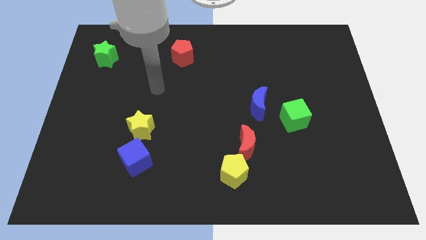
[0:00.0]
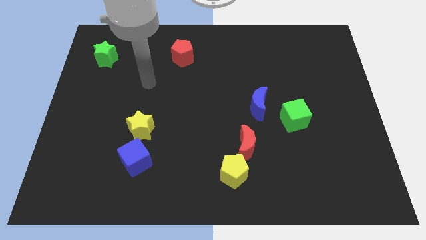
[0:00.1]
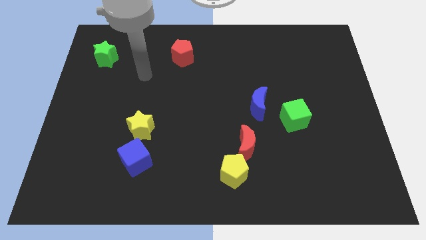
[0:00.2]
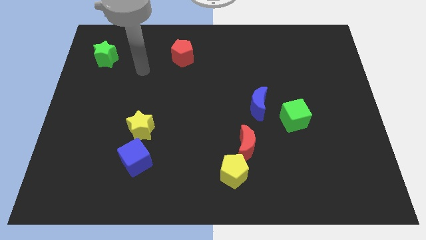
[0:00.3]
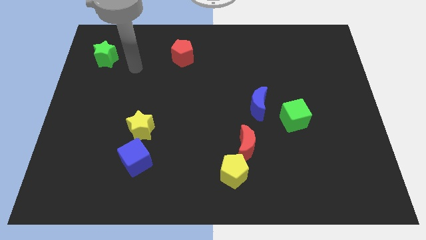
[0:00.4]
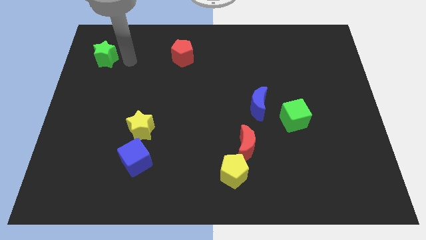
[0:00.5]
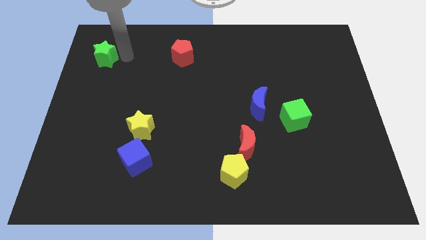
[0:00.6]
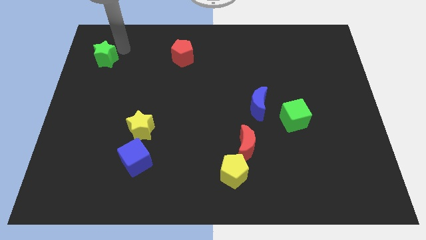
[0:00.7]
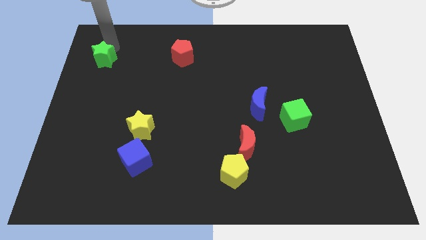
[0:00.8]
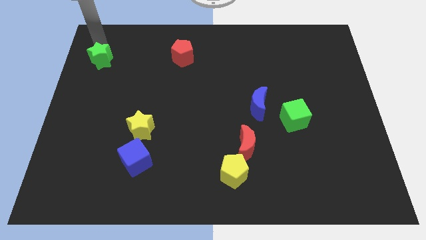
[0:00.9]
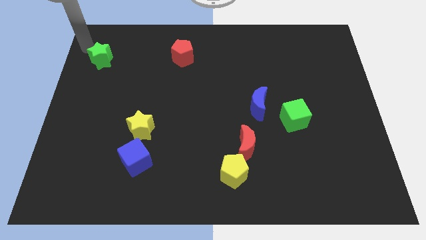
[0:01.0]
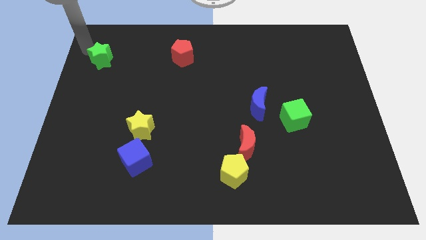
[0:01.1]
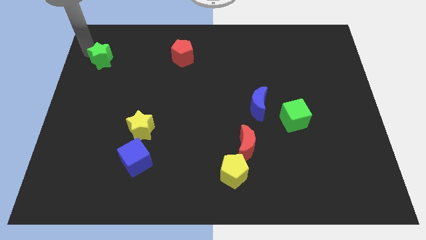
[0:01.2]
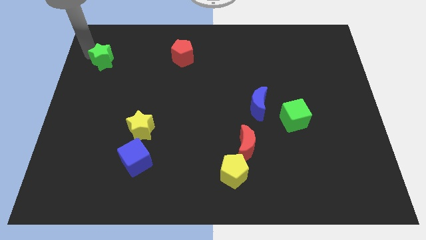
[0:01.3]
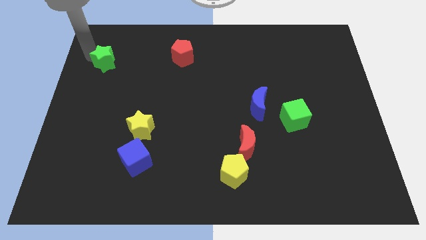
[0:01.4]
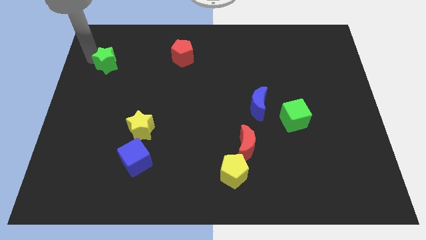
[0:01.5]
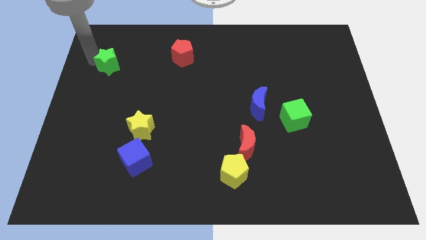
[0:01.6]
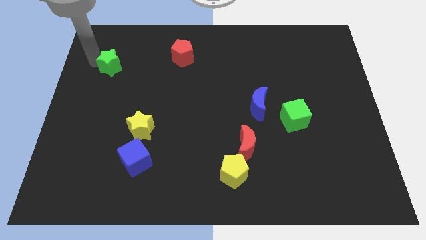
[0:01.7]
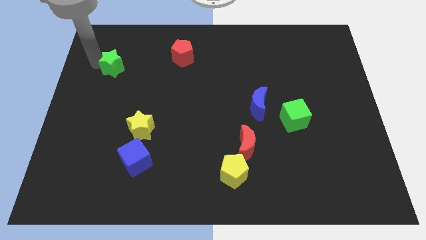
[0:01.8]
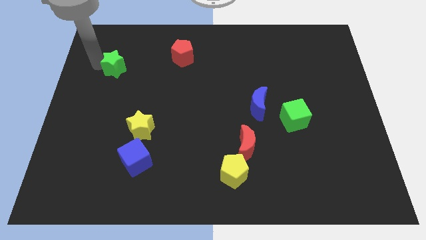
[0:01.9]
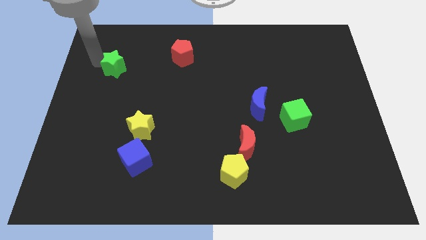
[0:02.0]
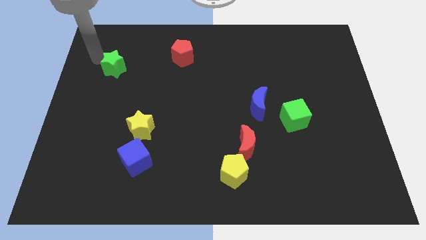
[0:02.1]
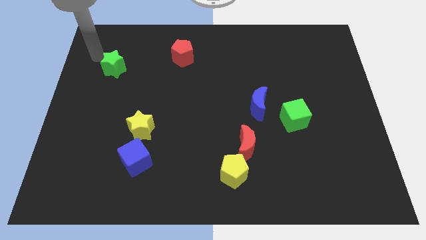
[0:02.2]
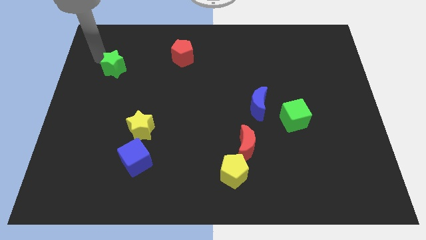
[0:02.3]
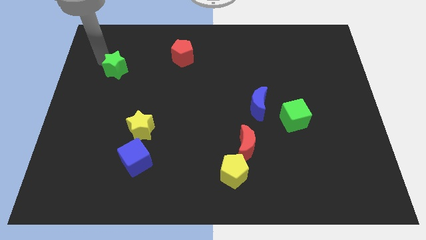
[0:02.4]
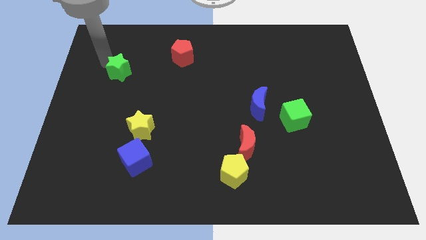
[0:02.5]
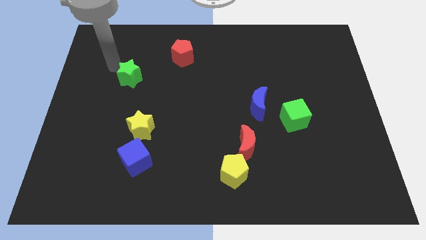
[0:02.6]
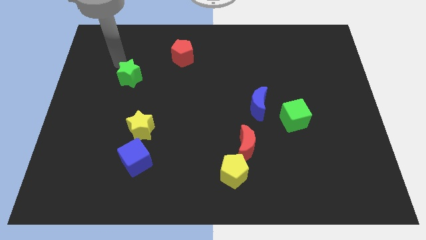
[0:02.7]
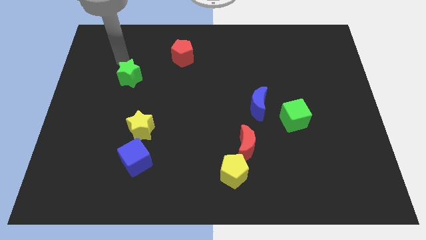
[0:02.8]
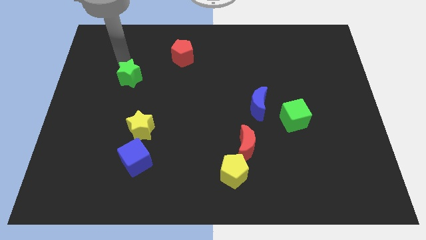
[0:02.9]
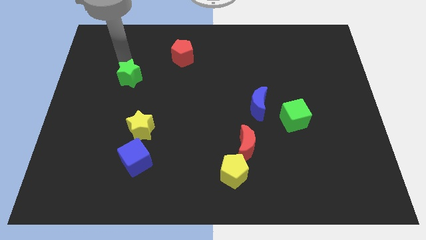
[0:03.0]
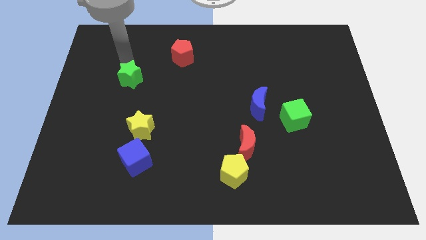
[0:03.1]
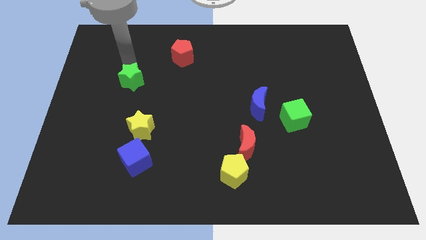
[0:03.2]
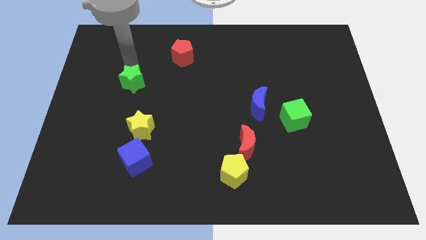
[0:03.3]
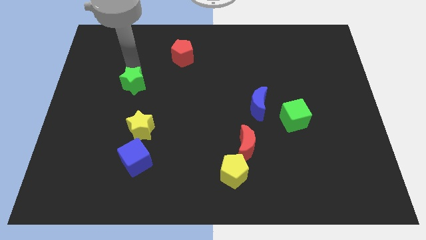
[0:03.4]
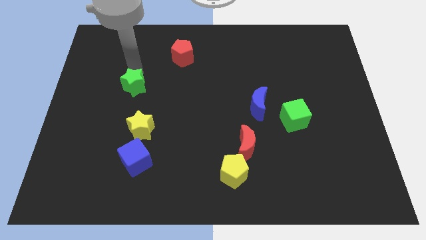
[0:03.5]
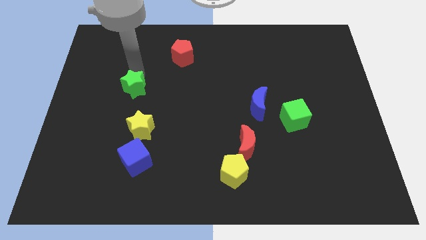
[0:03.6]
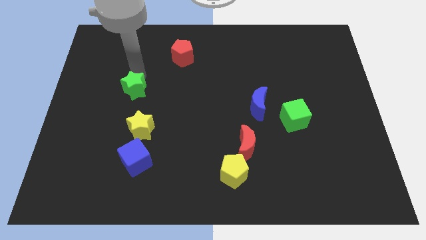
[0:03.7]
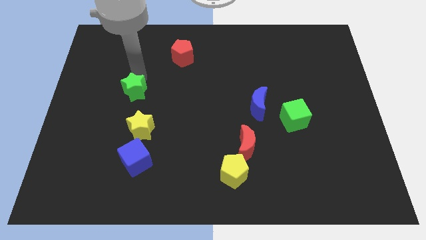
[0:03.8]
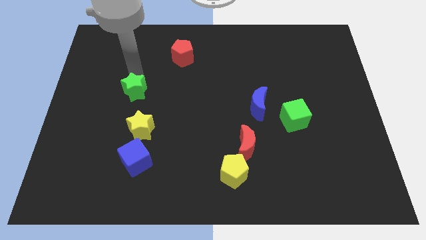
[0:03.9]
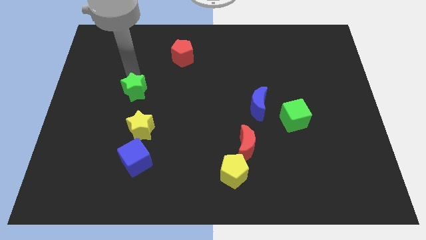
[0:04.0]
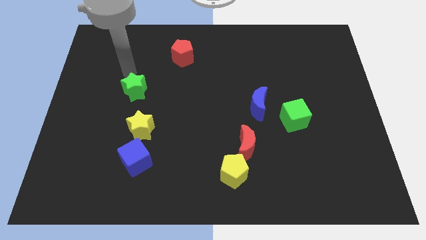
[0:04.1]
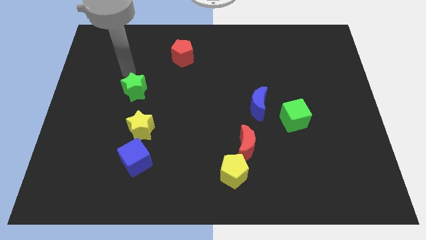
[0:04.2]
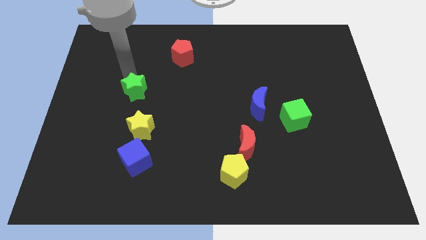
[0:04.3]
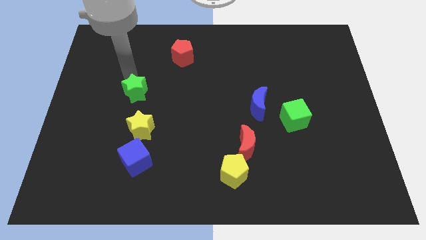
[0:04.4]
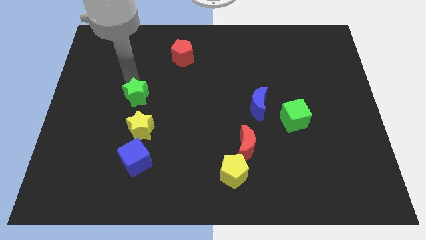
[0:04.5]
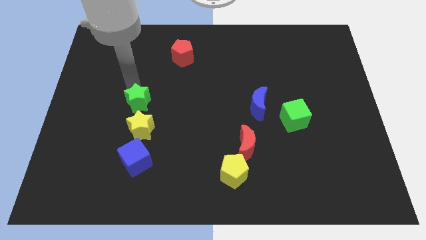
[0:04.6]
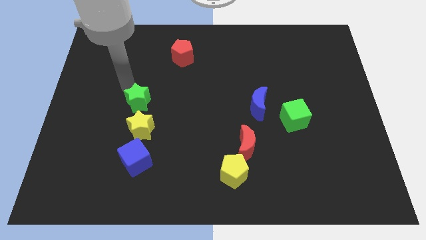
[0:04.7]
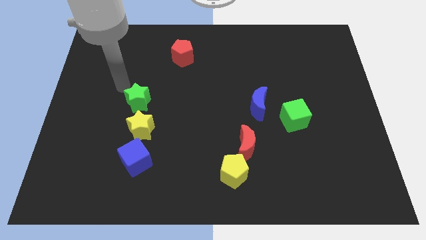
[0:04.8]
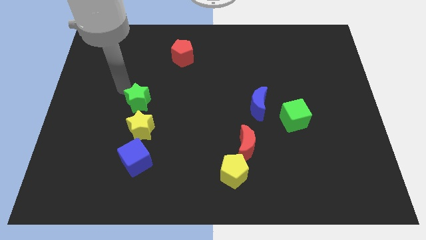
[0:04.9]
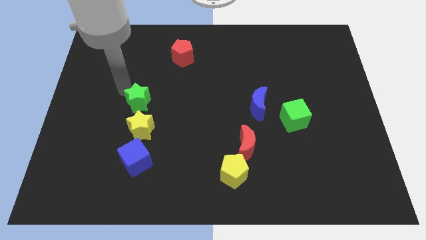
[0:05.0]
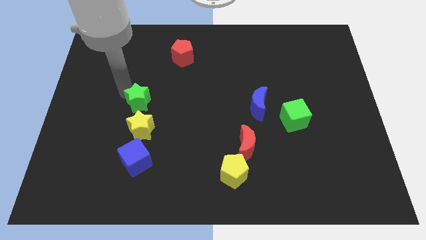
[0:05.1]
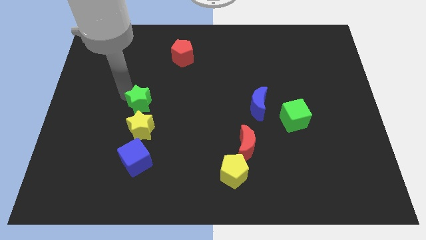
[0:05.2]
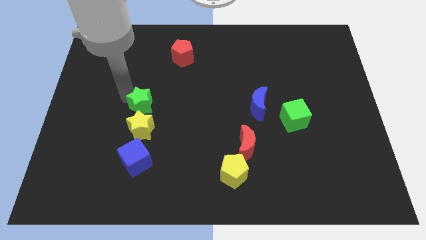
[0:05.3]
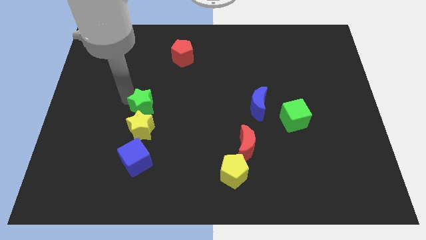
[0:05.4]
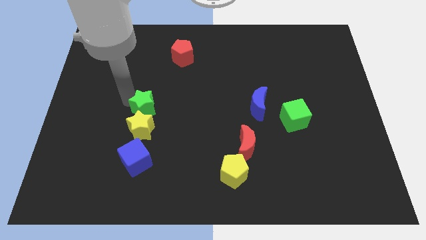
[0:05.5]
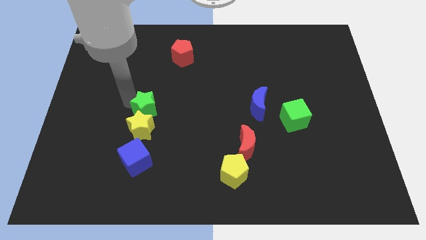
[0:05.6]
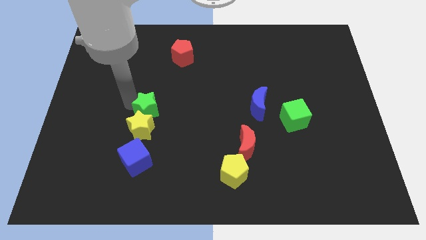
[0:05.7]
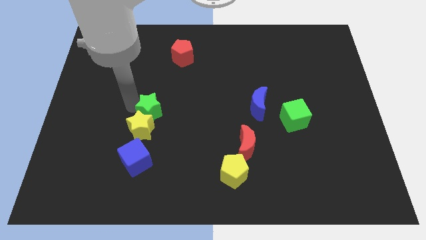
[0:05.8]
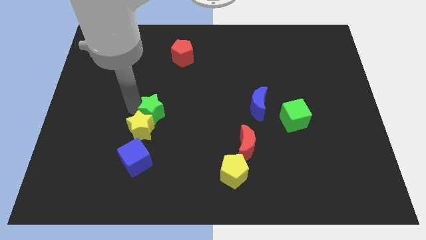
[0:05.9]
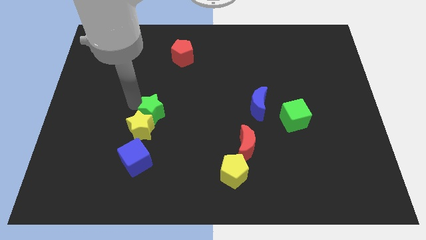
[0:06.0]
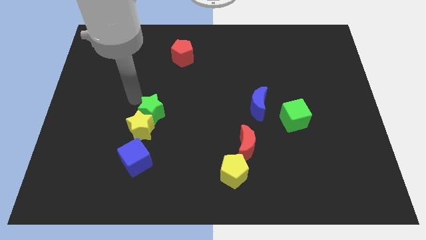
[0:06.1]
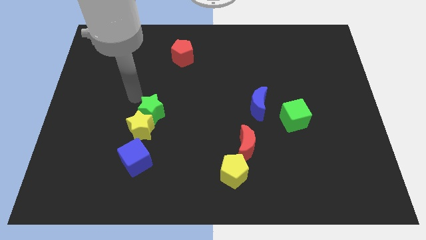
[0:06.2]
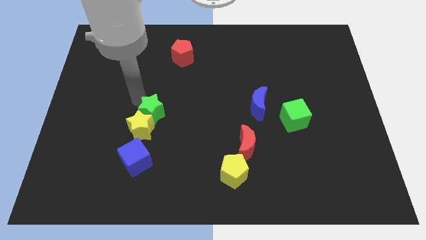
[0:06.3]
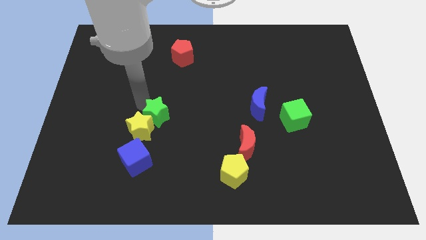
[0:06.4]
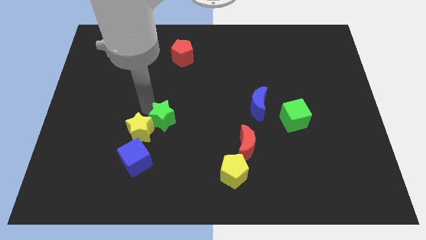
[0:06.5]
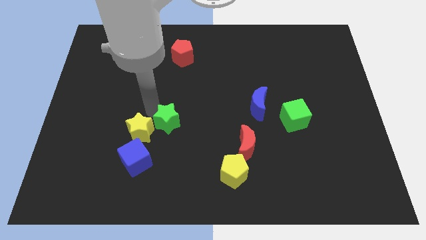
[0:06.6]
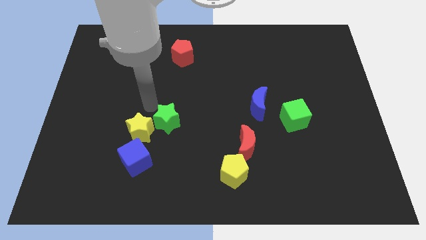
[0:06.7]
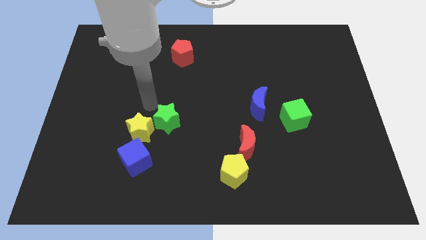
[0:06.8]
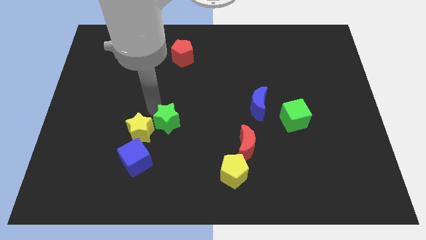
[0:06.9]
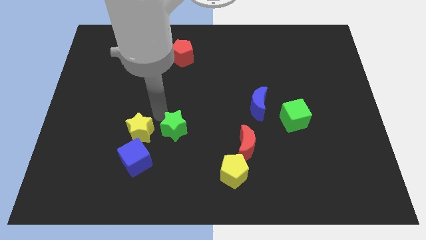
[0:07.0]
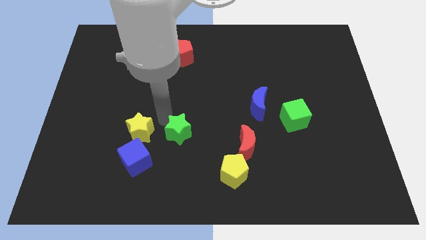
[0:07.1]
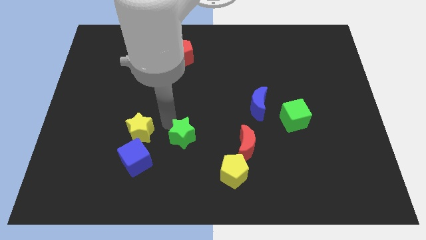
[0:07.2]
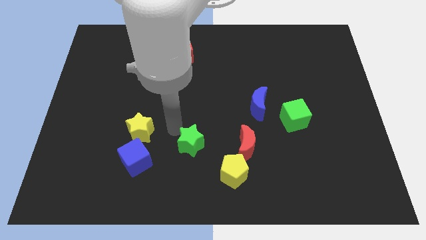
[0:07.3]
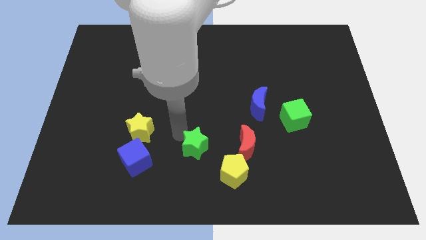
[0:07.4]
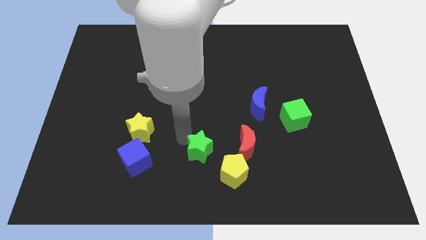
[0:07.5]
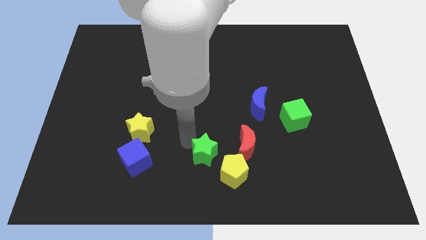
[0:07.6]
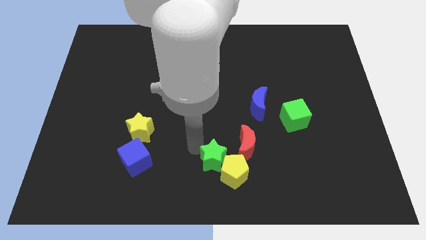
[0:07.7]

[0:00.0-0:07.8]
move the green star towards the yellow pentagon
